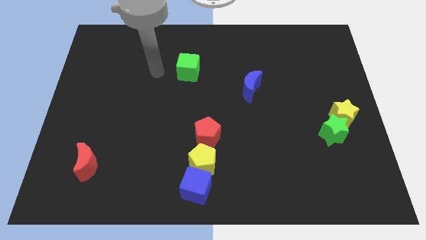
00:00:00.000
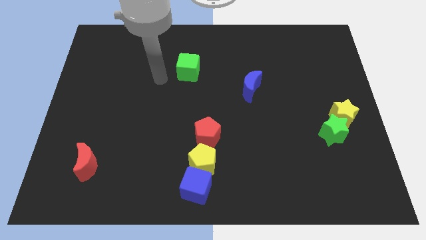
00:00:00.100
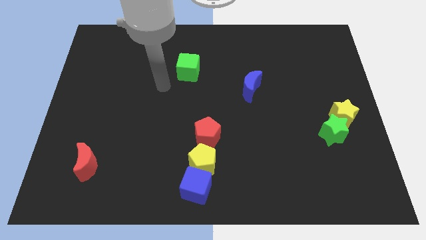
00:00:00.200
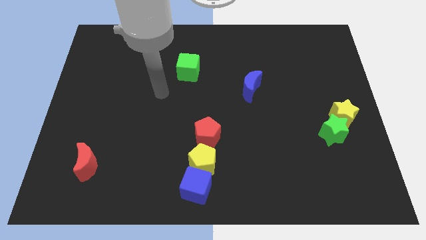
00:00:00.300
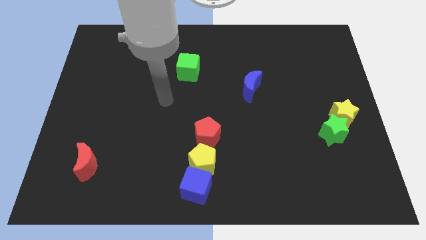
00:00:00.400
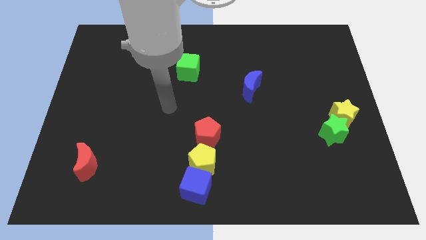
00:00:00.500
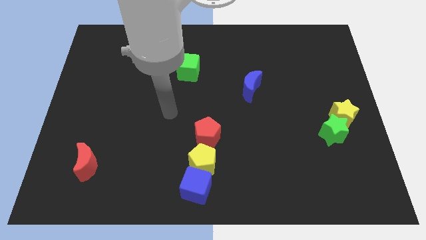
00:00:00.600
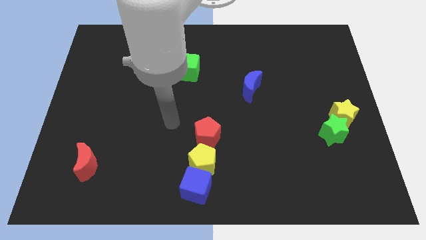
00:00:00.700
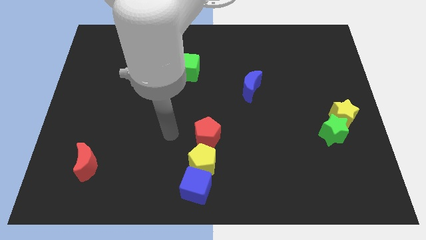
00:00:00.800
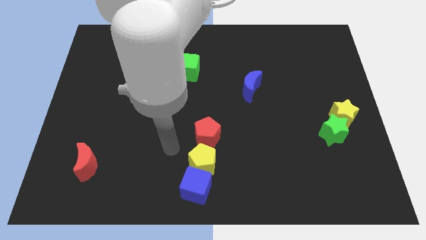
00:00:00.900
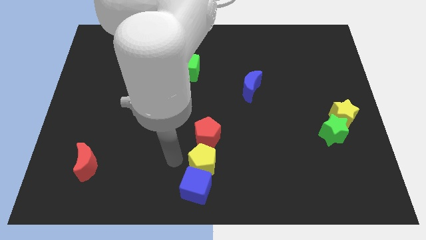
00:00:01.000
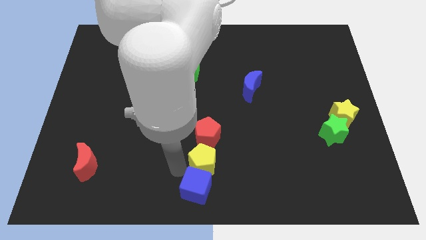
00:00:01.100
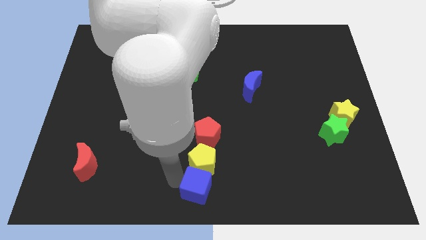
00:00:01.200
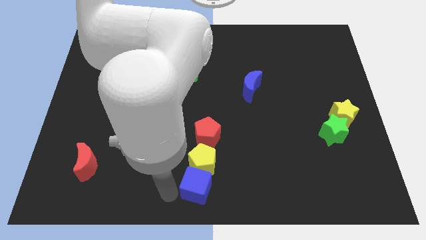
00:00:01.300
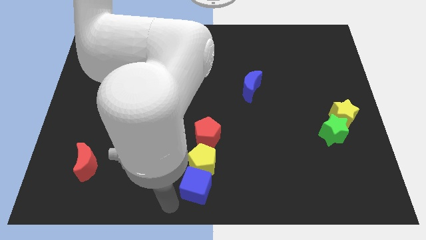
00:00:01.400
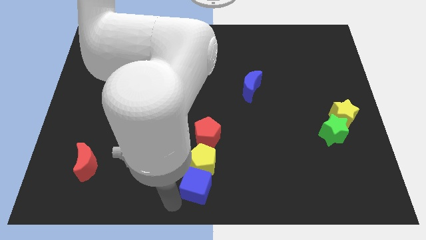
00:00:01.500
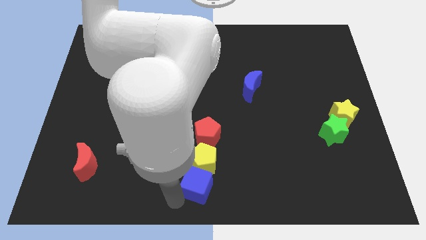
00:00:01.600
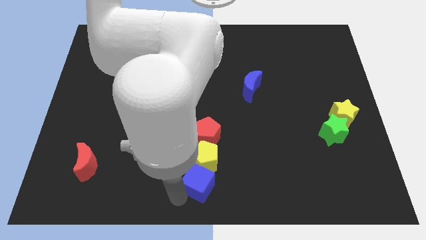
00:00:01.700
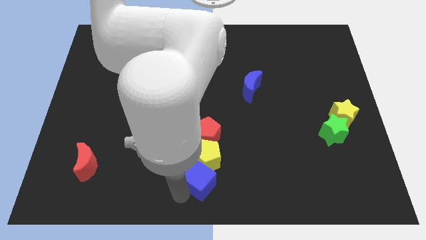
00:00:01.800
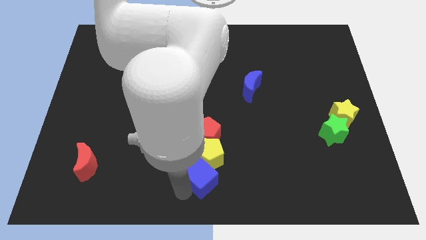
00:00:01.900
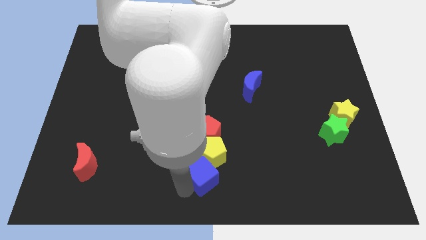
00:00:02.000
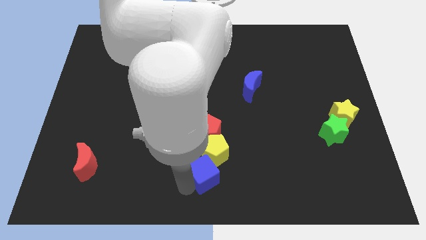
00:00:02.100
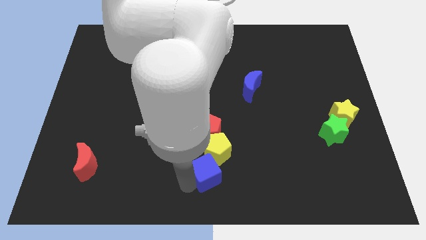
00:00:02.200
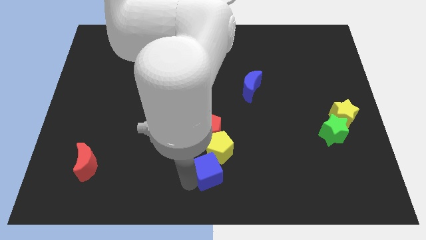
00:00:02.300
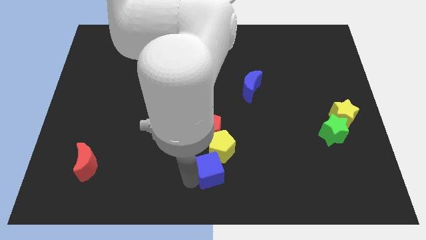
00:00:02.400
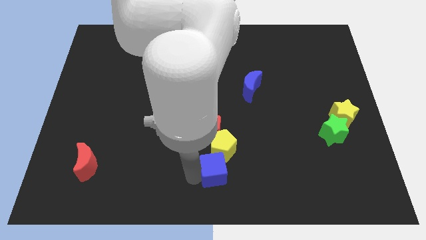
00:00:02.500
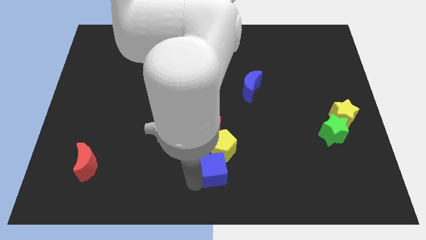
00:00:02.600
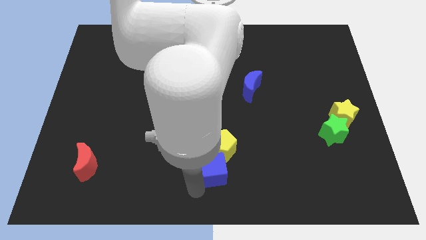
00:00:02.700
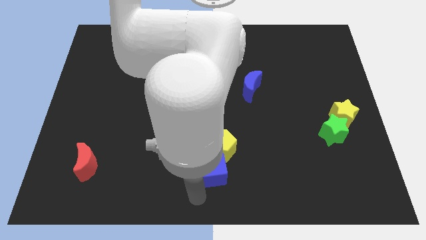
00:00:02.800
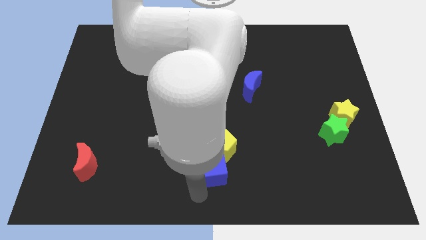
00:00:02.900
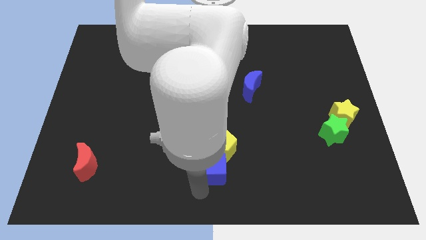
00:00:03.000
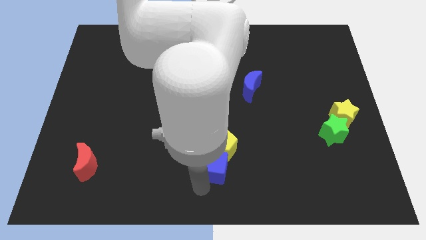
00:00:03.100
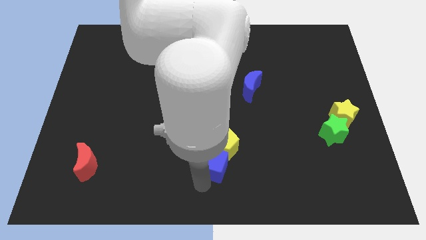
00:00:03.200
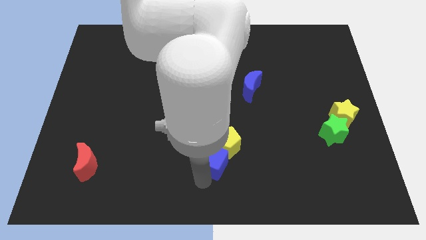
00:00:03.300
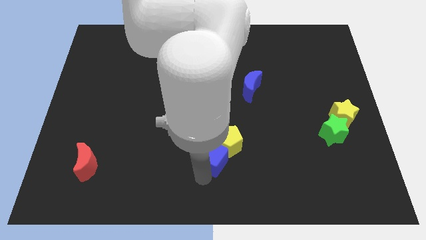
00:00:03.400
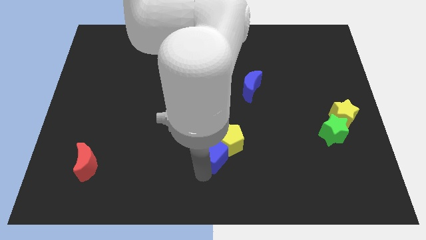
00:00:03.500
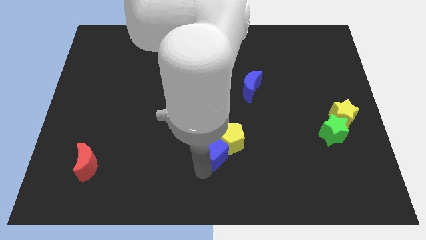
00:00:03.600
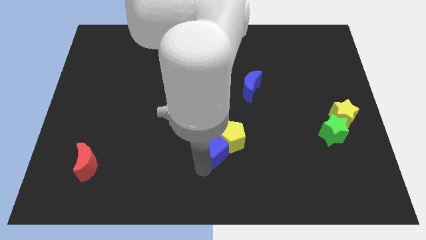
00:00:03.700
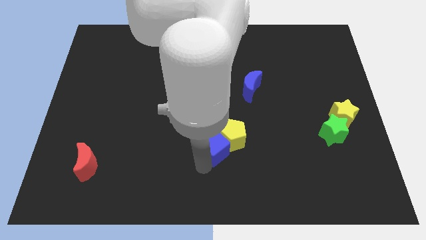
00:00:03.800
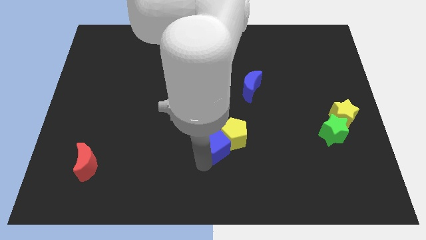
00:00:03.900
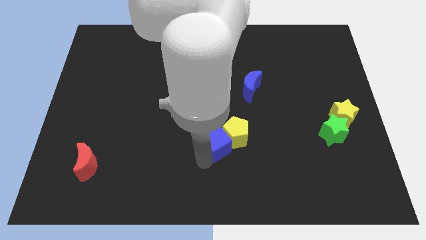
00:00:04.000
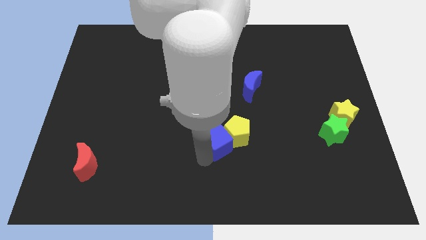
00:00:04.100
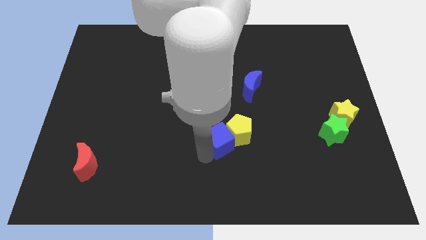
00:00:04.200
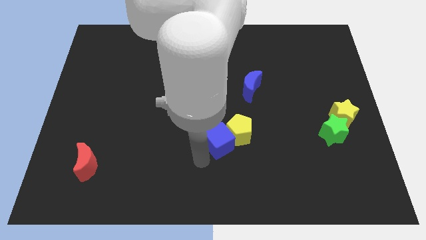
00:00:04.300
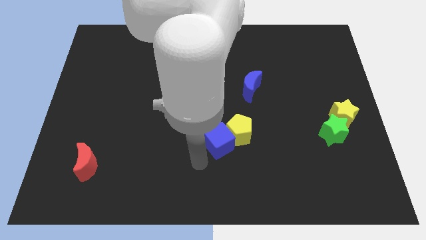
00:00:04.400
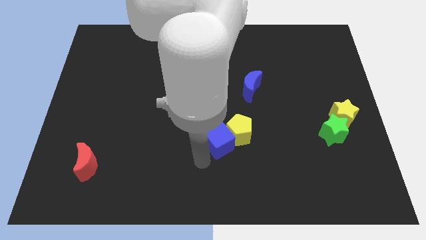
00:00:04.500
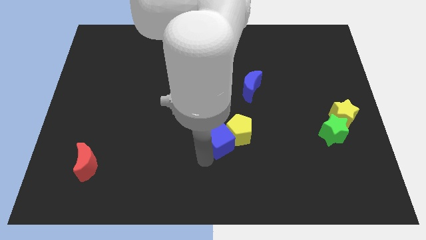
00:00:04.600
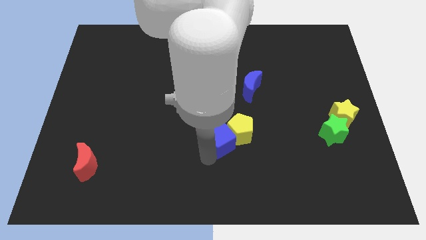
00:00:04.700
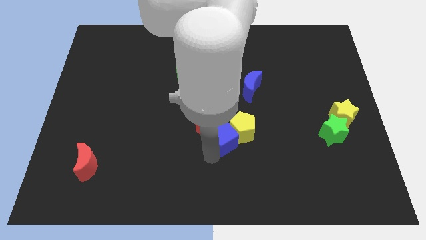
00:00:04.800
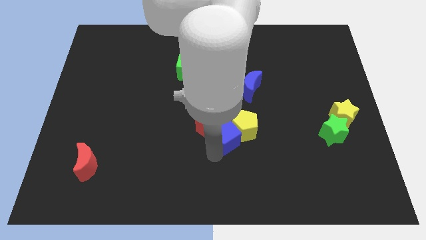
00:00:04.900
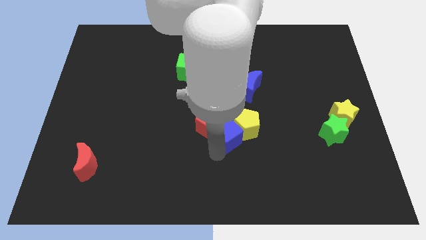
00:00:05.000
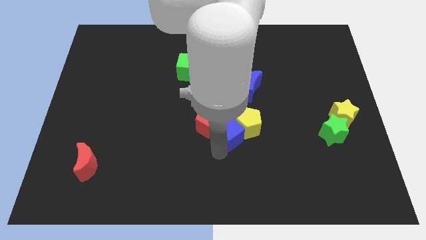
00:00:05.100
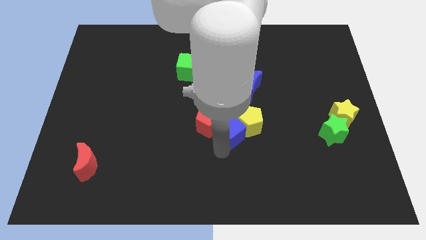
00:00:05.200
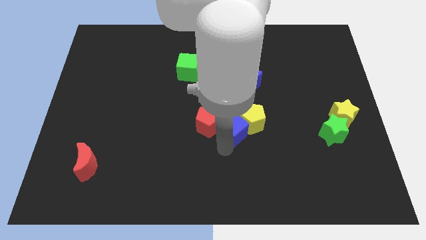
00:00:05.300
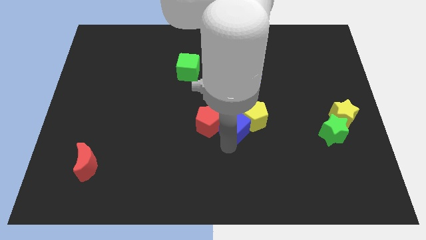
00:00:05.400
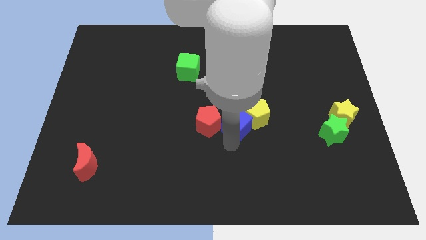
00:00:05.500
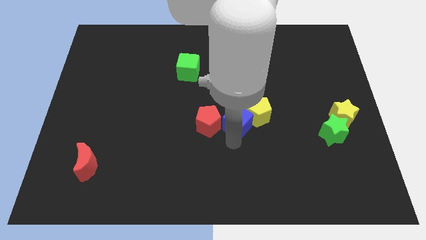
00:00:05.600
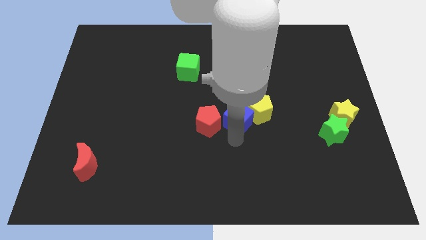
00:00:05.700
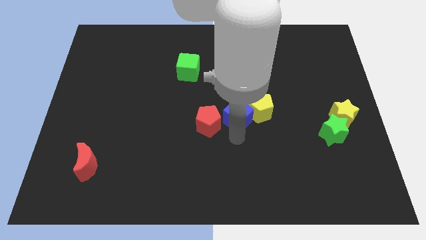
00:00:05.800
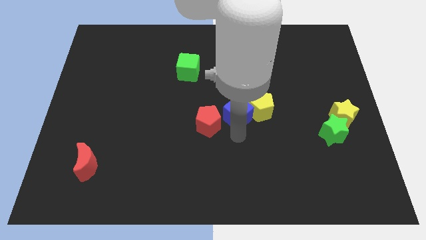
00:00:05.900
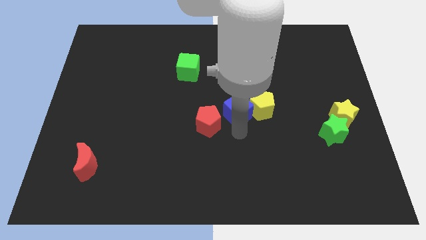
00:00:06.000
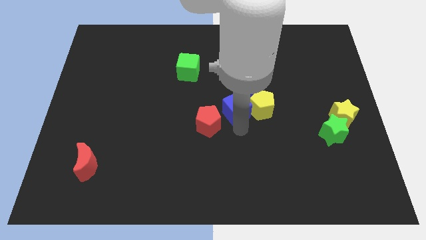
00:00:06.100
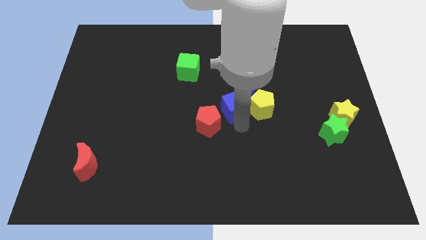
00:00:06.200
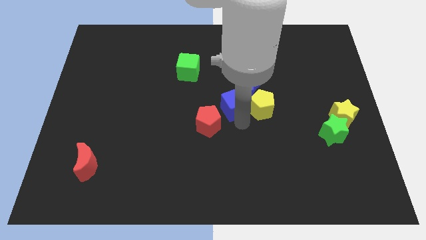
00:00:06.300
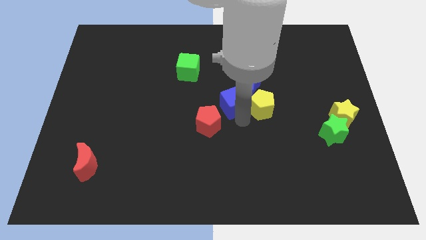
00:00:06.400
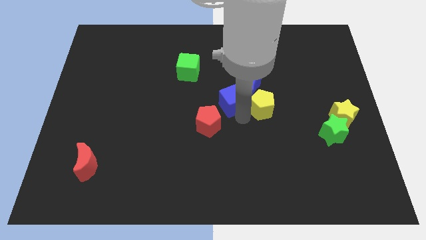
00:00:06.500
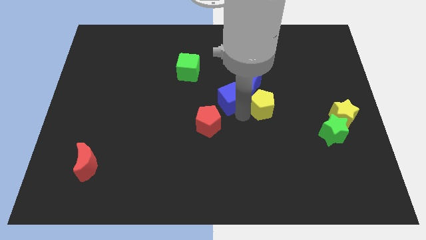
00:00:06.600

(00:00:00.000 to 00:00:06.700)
push the blue cube towards the blue moon
